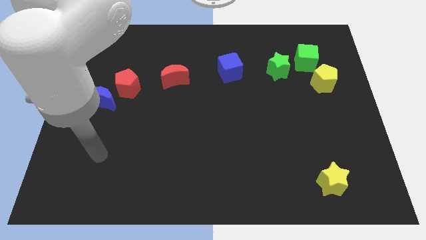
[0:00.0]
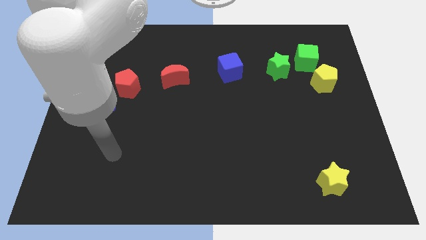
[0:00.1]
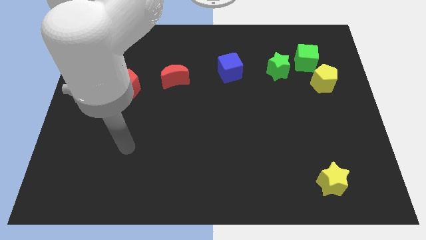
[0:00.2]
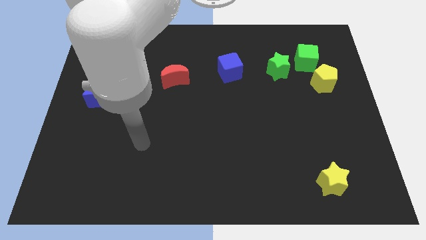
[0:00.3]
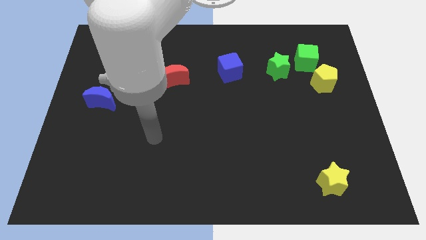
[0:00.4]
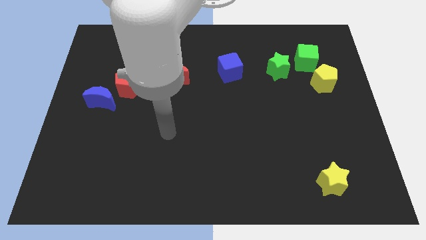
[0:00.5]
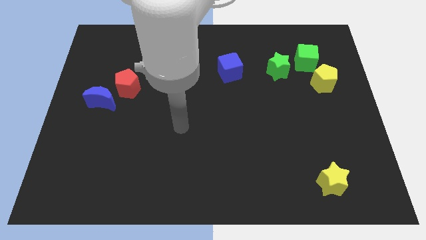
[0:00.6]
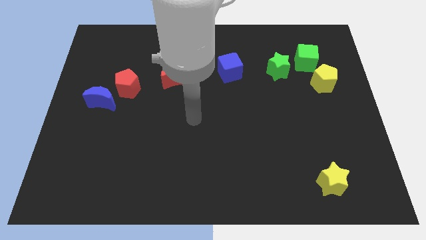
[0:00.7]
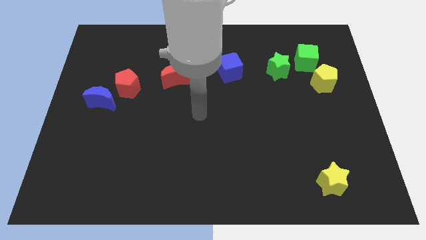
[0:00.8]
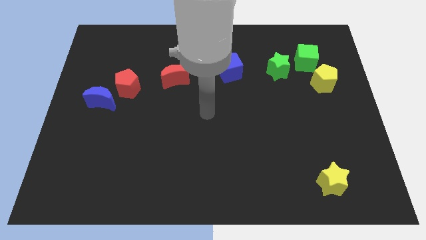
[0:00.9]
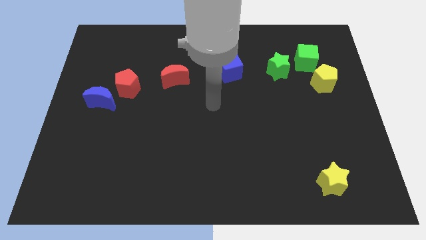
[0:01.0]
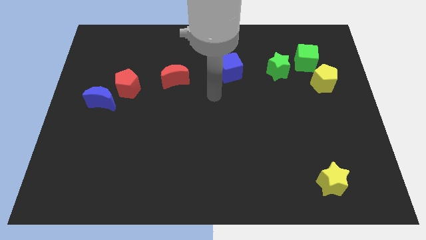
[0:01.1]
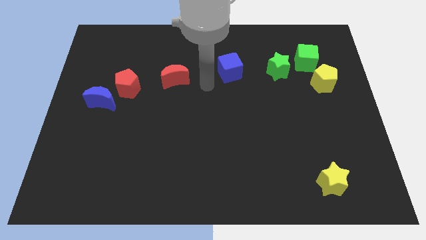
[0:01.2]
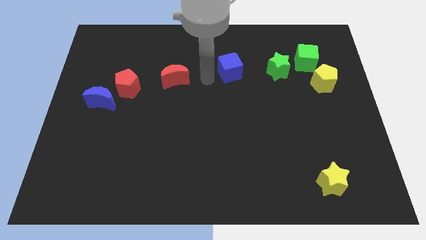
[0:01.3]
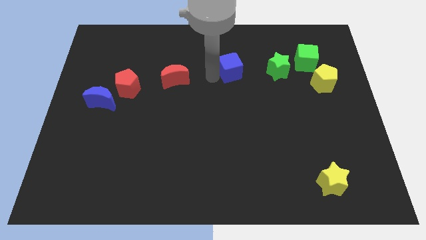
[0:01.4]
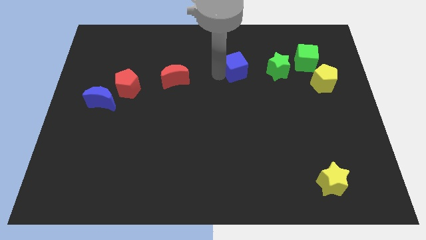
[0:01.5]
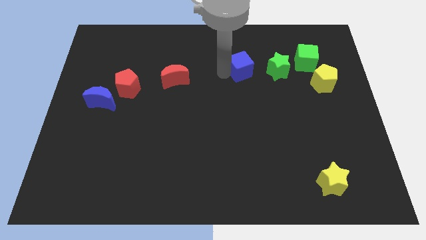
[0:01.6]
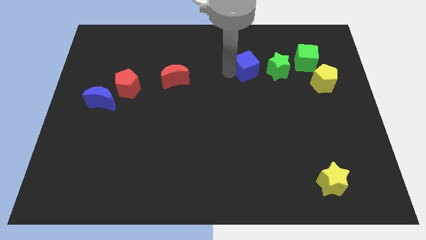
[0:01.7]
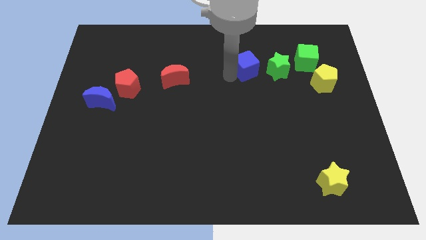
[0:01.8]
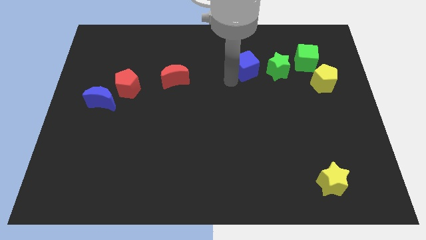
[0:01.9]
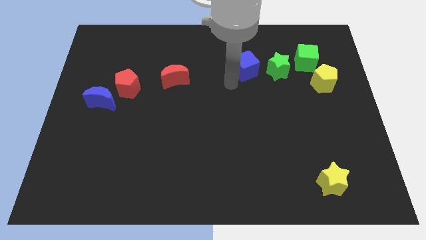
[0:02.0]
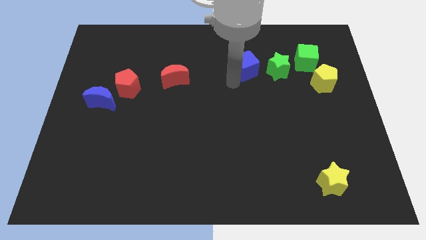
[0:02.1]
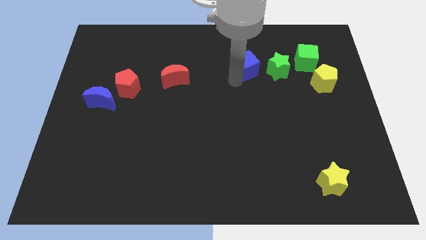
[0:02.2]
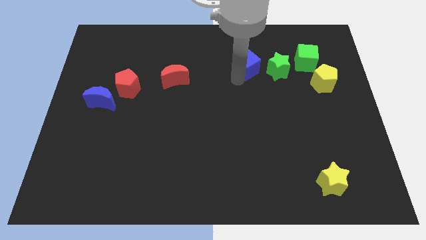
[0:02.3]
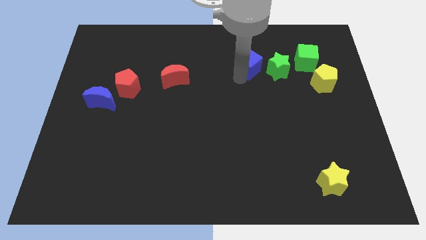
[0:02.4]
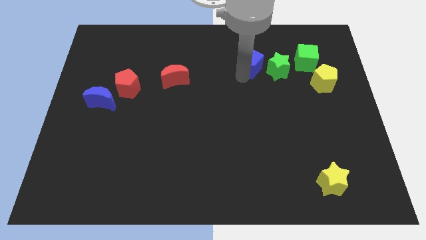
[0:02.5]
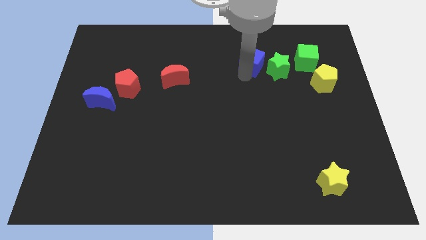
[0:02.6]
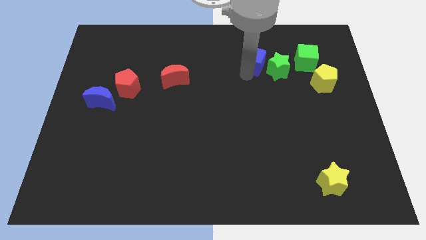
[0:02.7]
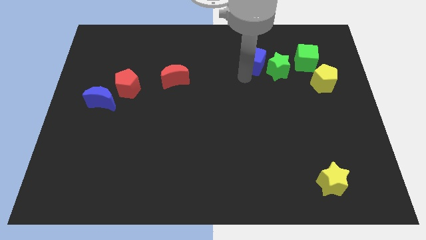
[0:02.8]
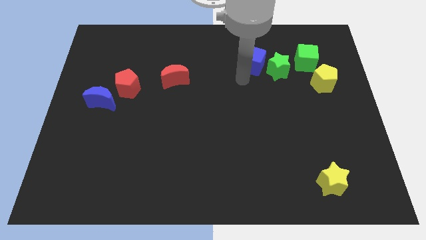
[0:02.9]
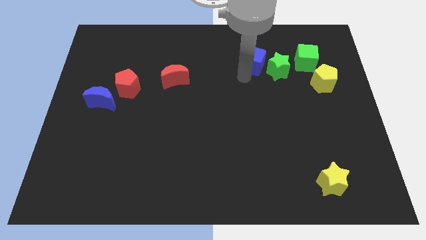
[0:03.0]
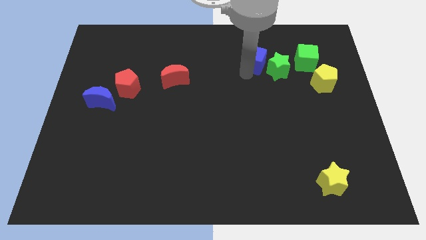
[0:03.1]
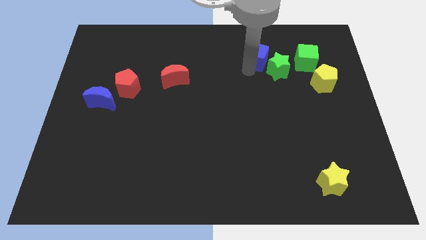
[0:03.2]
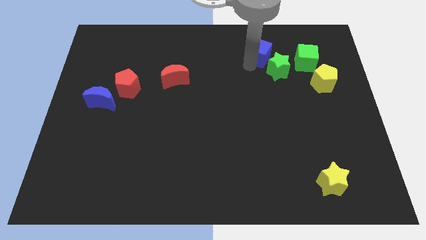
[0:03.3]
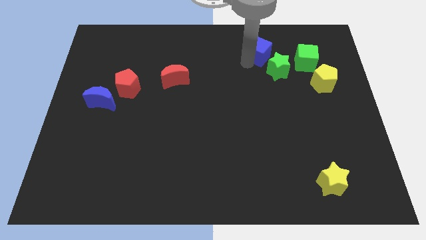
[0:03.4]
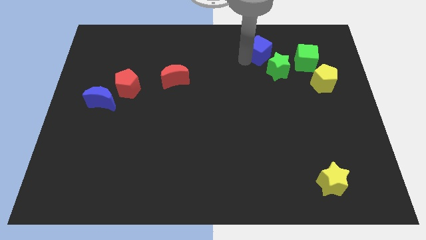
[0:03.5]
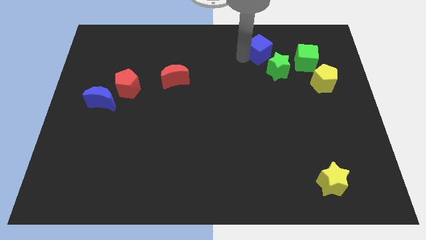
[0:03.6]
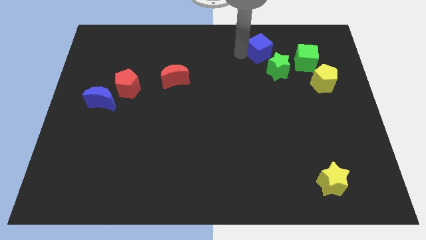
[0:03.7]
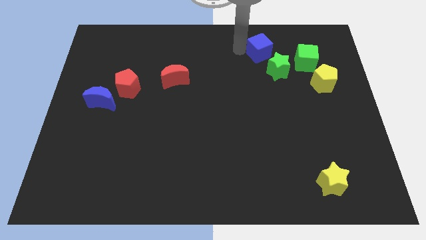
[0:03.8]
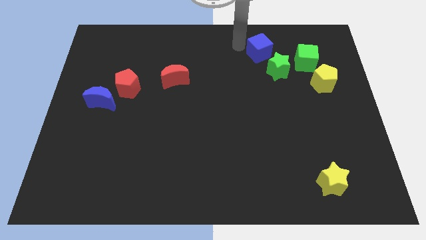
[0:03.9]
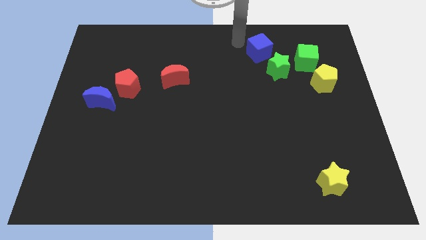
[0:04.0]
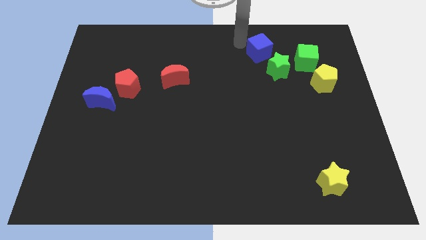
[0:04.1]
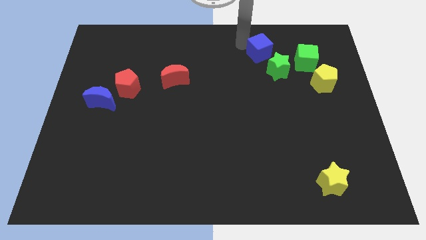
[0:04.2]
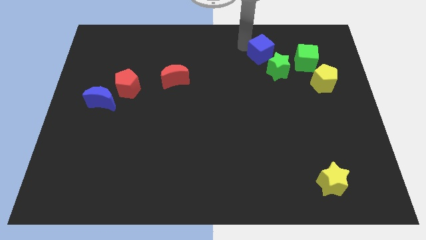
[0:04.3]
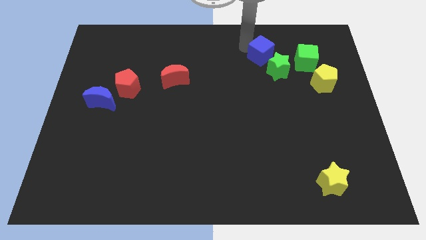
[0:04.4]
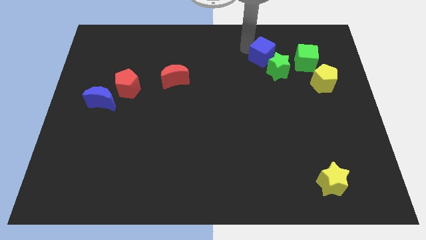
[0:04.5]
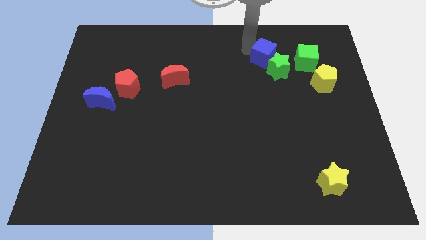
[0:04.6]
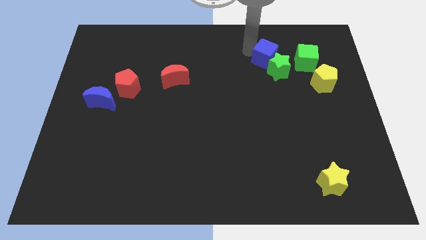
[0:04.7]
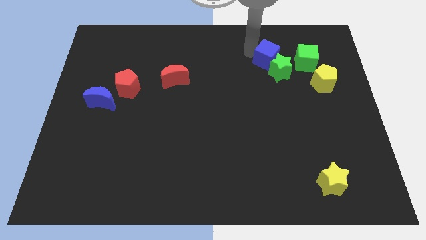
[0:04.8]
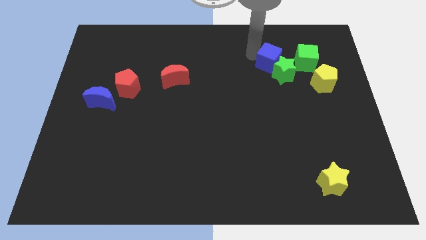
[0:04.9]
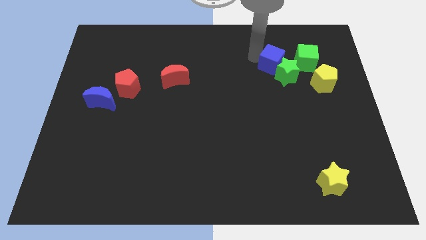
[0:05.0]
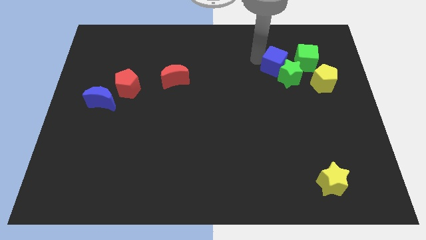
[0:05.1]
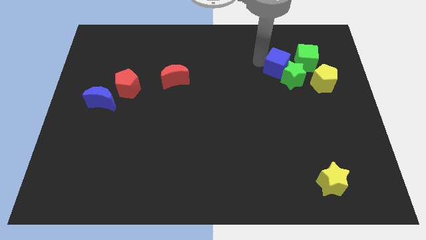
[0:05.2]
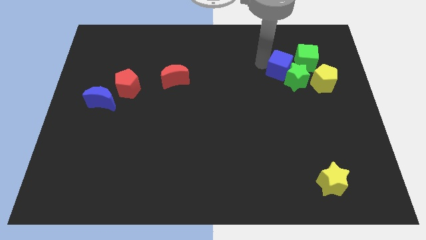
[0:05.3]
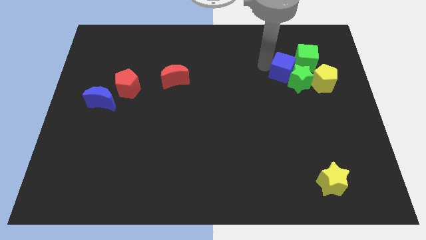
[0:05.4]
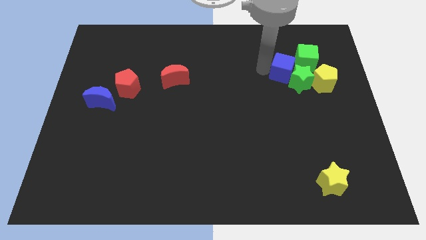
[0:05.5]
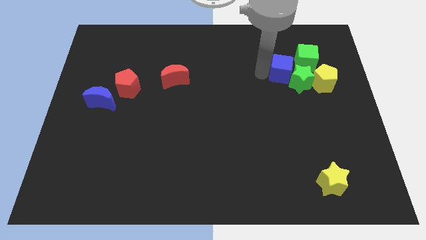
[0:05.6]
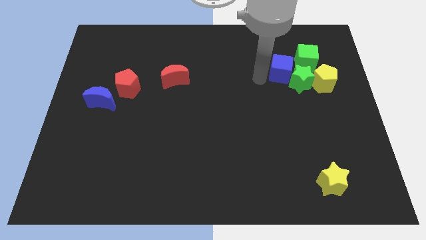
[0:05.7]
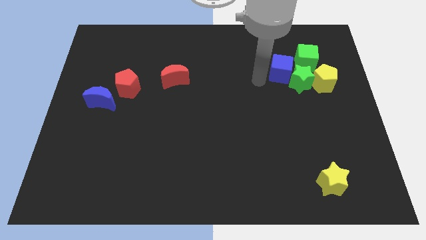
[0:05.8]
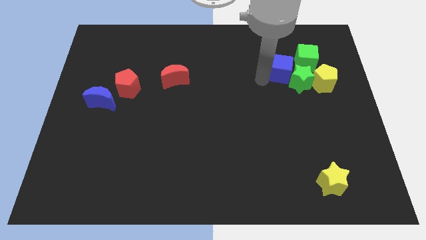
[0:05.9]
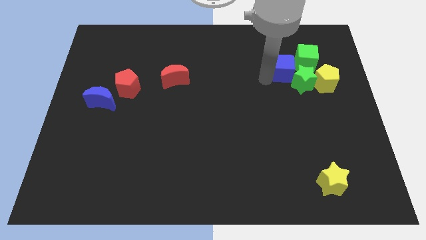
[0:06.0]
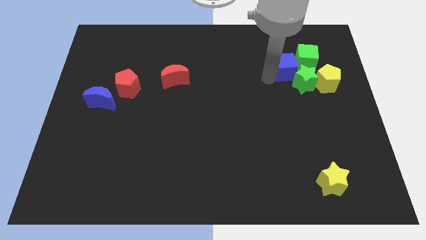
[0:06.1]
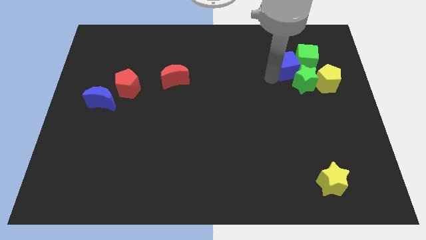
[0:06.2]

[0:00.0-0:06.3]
slide the blue cube close to the green cube

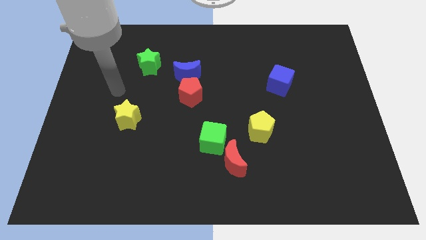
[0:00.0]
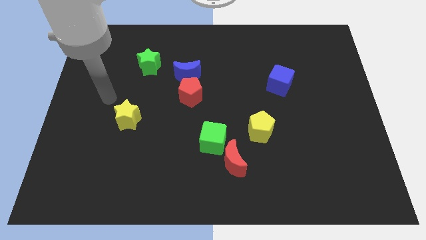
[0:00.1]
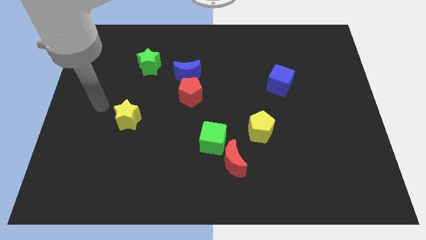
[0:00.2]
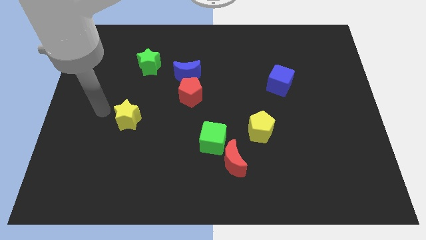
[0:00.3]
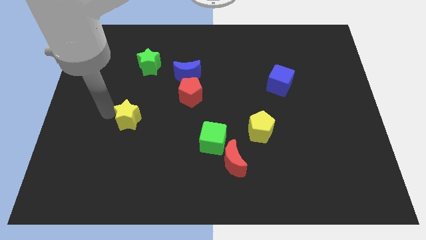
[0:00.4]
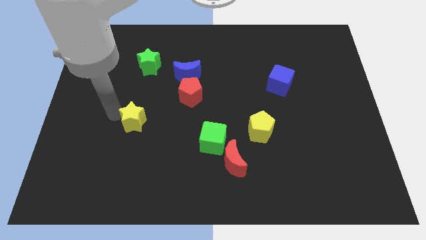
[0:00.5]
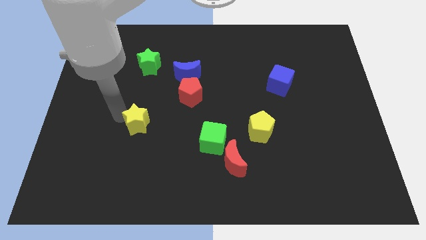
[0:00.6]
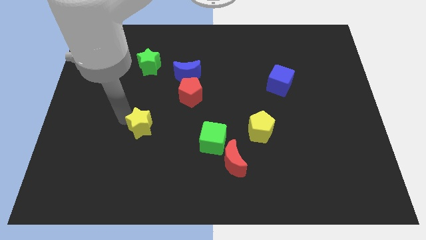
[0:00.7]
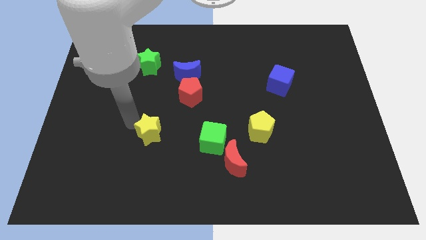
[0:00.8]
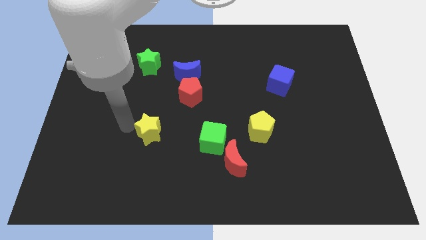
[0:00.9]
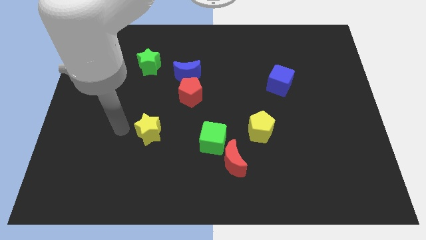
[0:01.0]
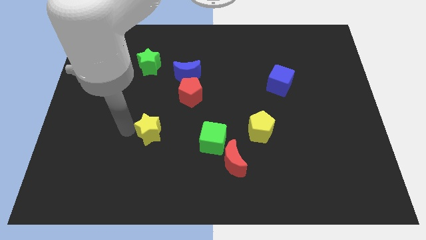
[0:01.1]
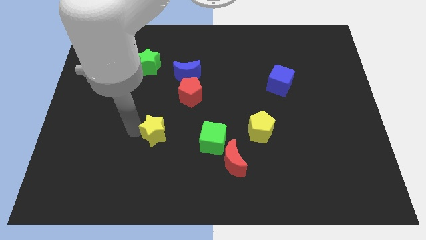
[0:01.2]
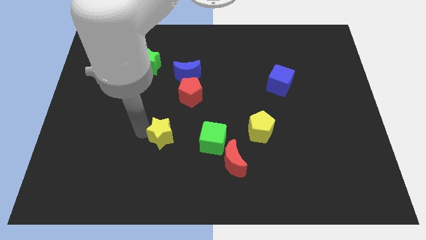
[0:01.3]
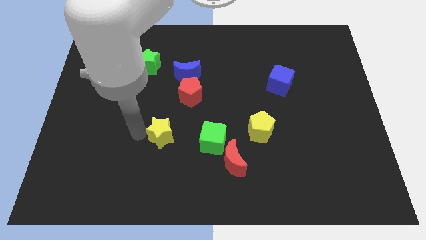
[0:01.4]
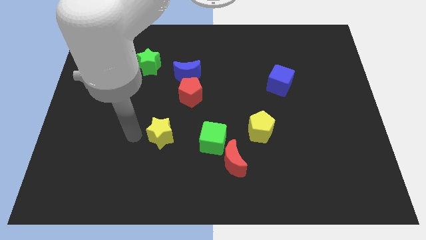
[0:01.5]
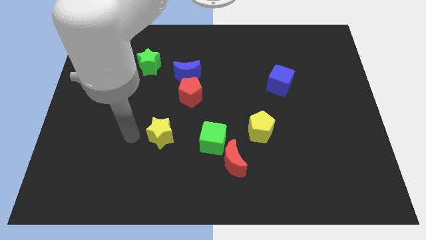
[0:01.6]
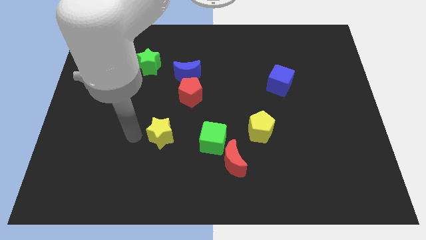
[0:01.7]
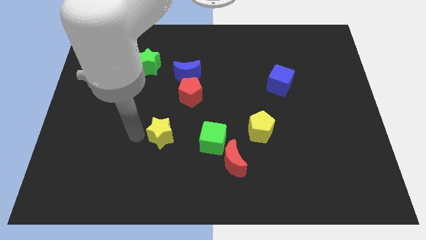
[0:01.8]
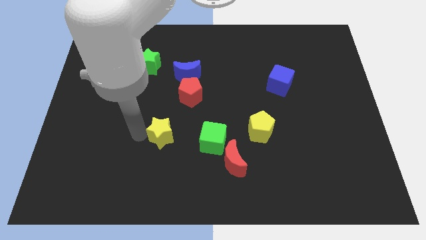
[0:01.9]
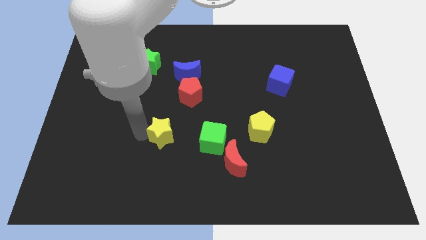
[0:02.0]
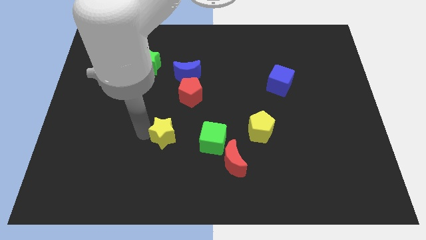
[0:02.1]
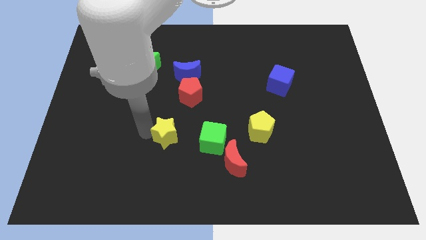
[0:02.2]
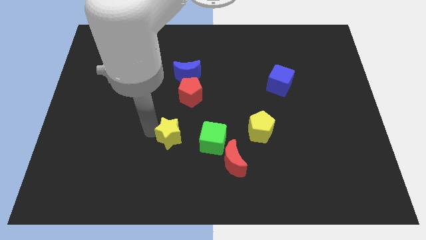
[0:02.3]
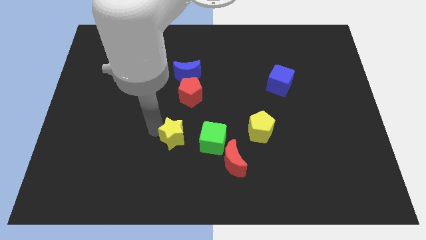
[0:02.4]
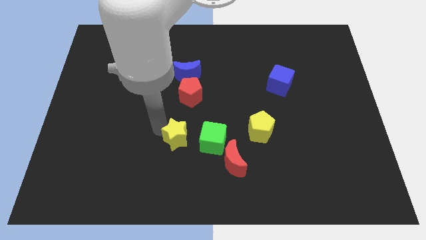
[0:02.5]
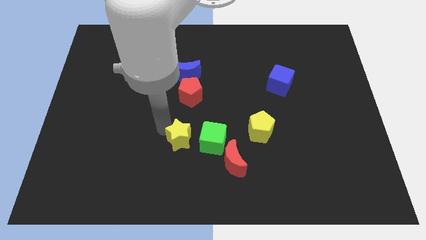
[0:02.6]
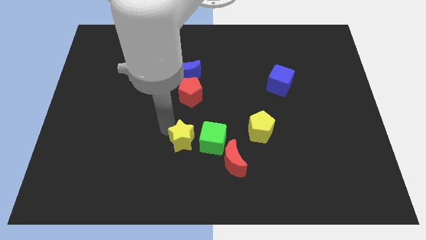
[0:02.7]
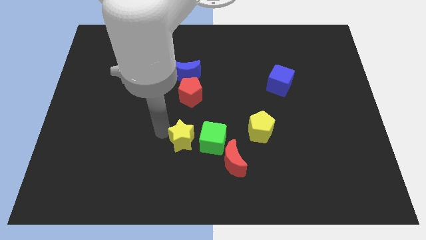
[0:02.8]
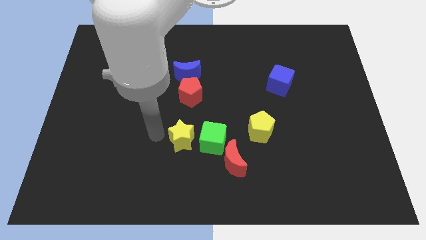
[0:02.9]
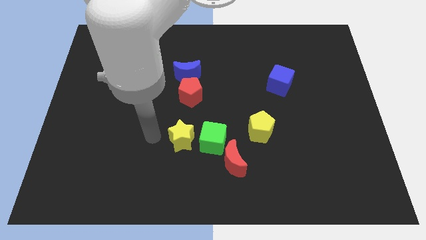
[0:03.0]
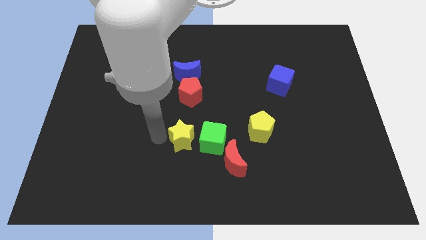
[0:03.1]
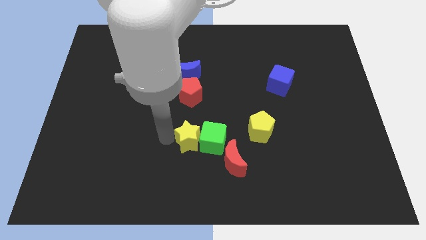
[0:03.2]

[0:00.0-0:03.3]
put the yellow star towards the green cube
